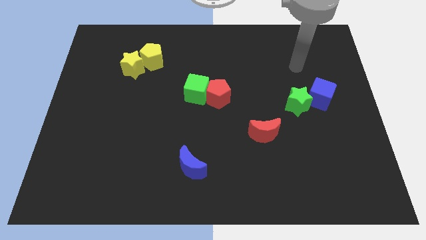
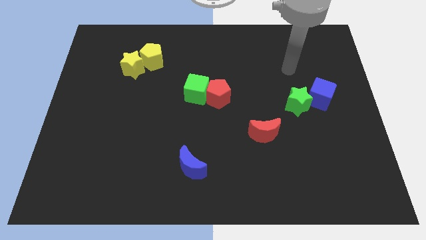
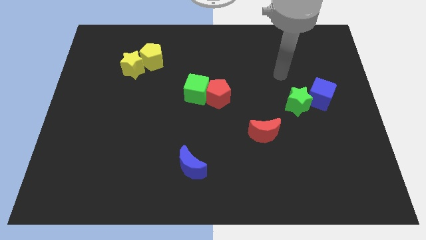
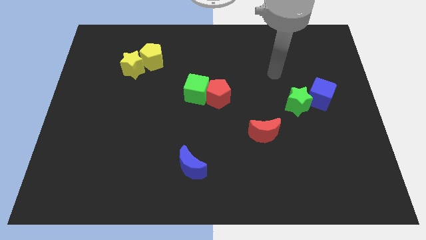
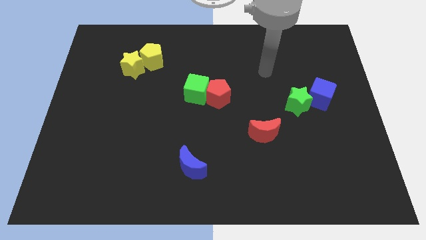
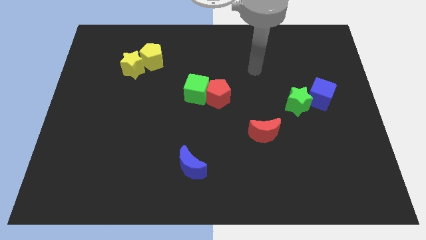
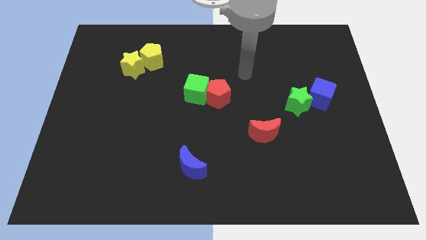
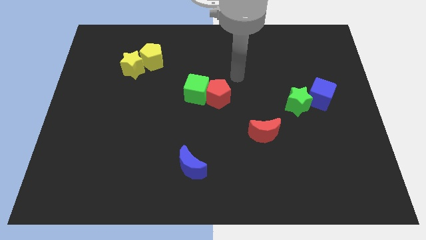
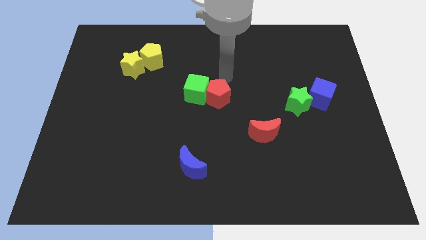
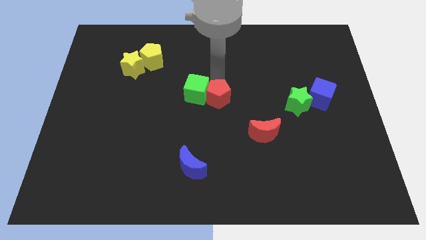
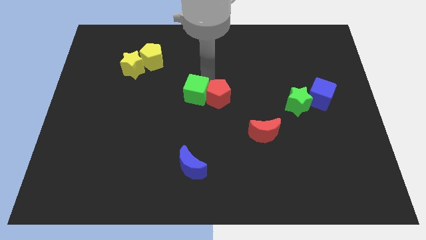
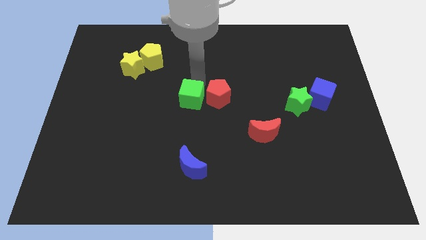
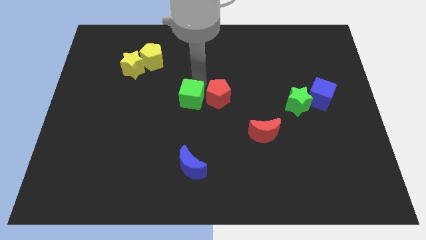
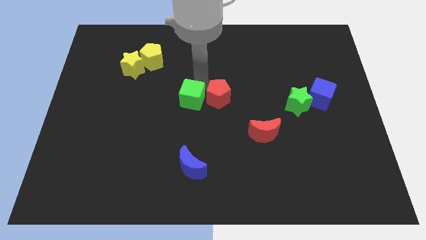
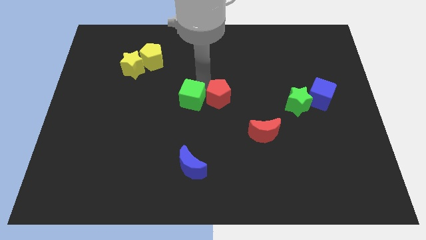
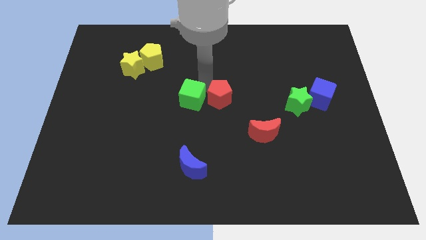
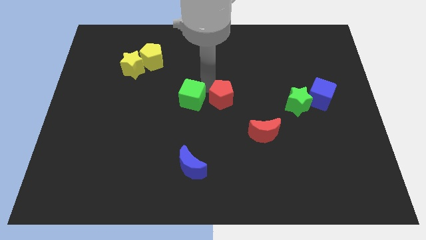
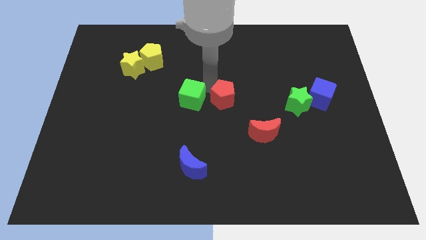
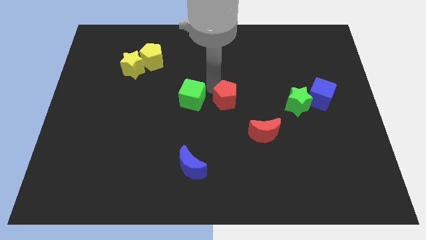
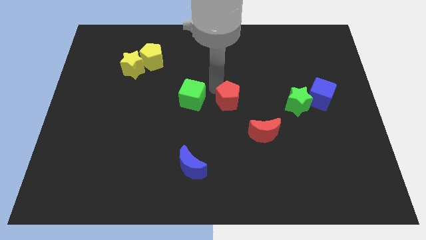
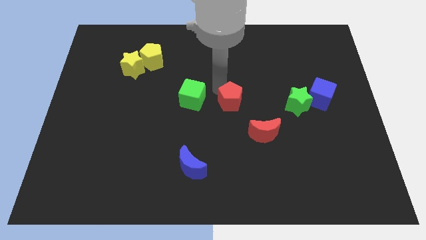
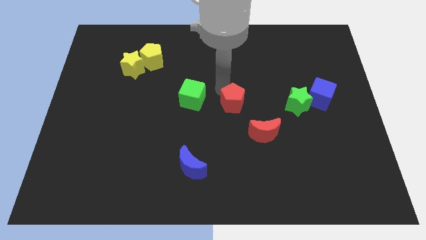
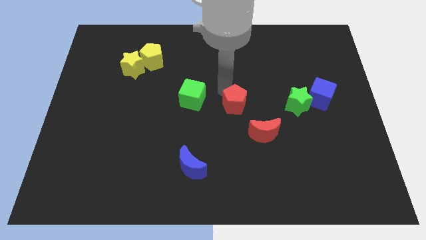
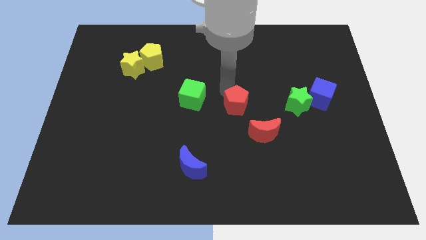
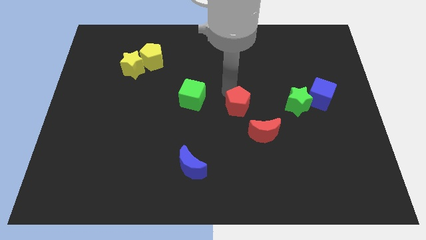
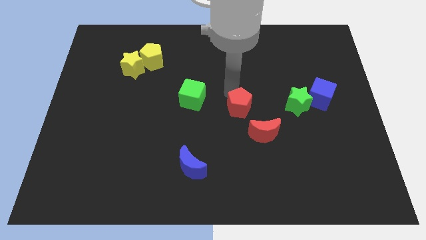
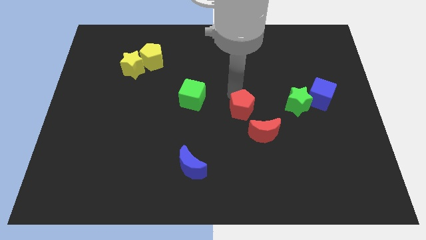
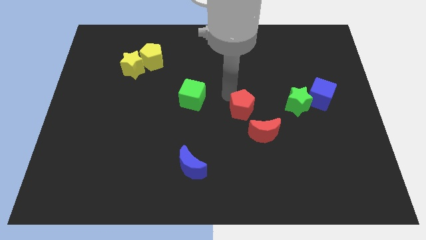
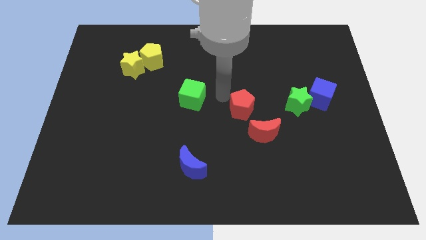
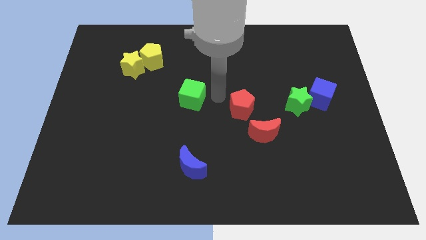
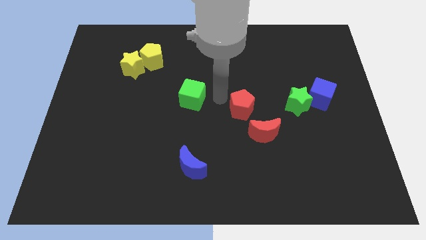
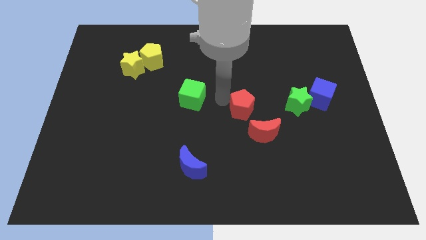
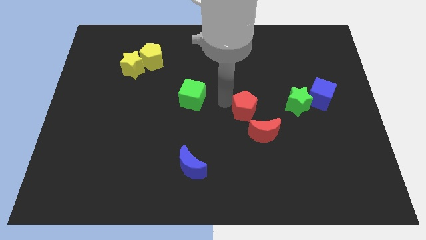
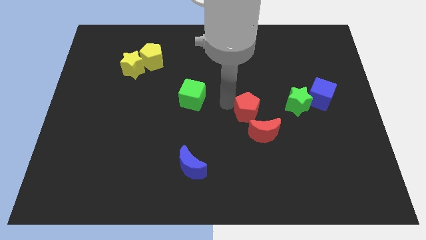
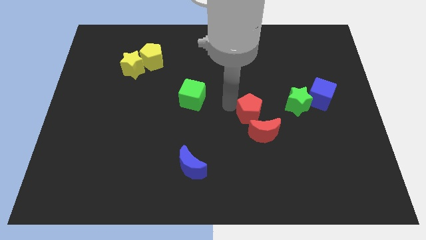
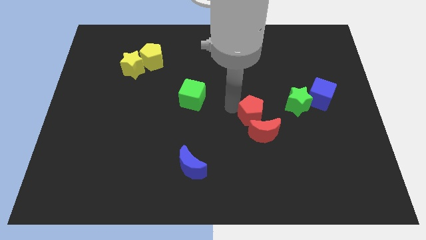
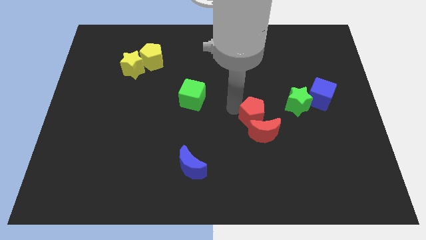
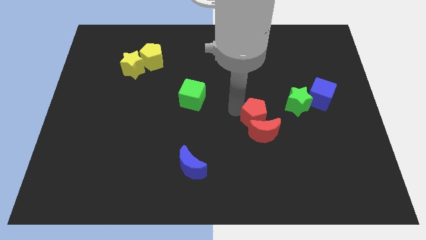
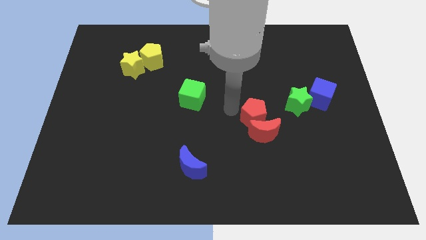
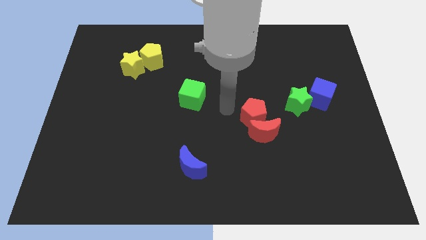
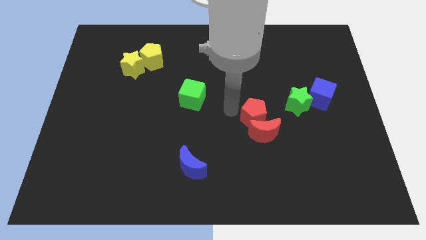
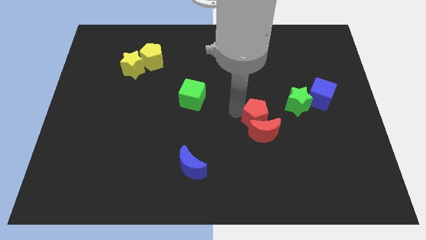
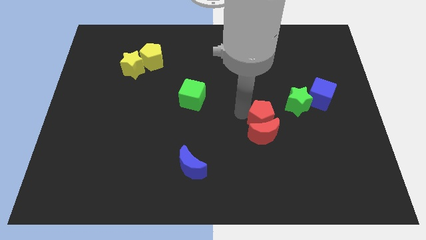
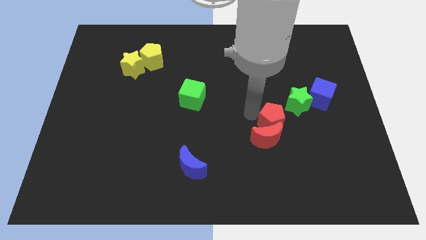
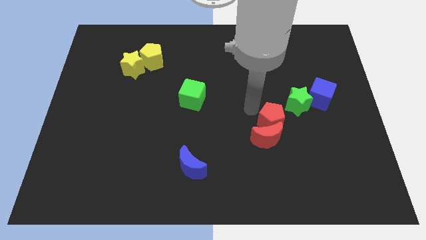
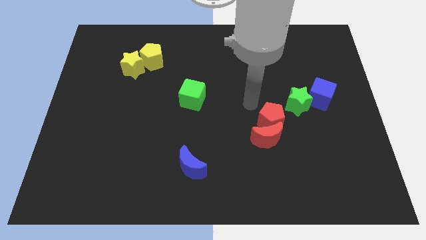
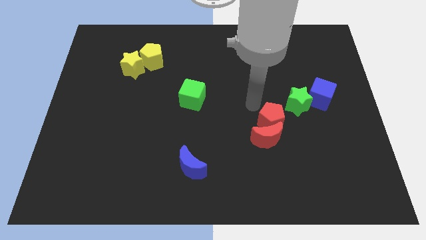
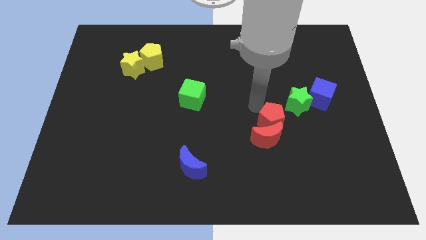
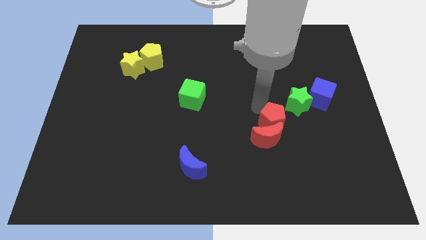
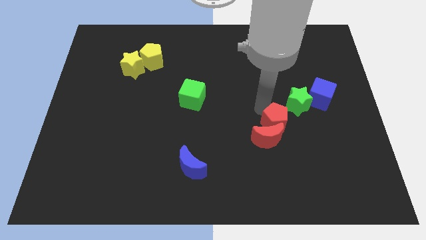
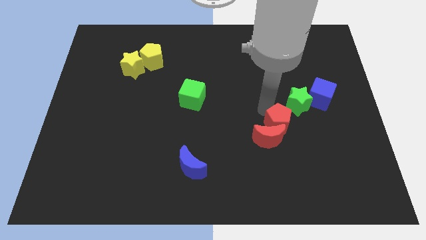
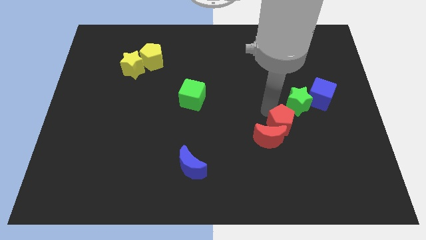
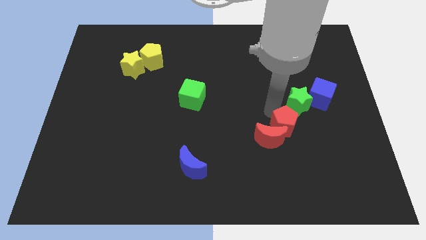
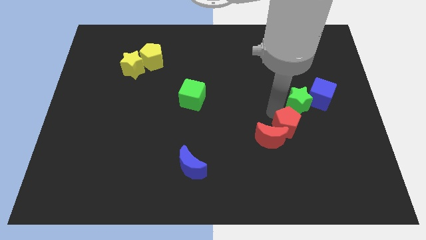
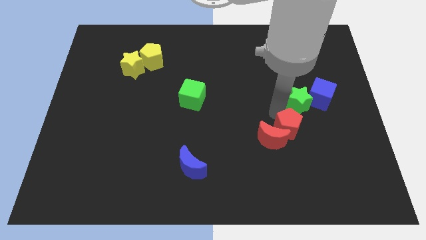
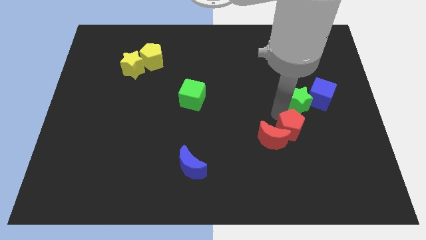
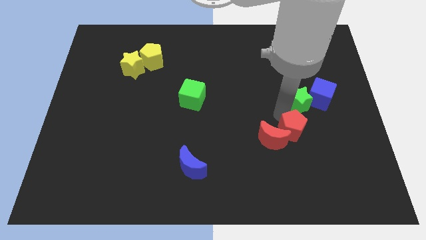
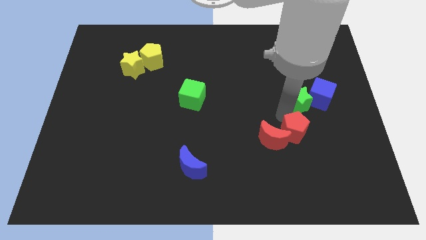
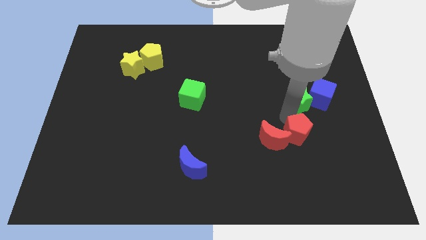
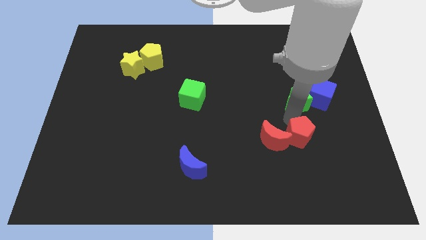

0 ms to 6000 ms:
push the red pentagon diagonally downwards and right

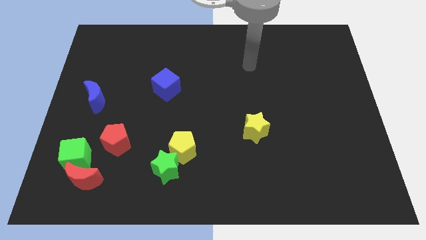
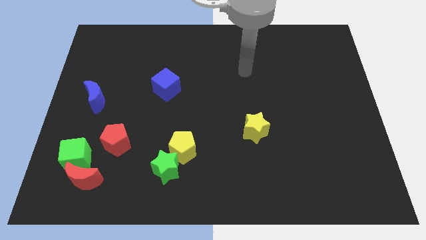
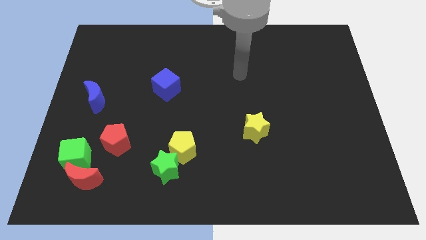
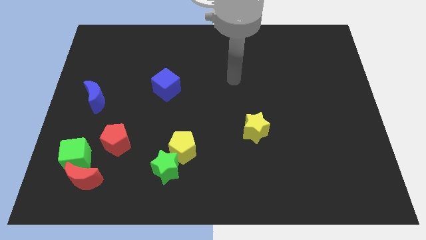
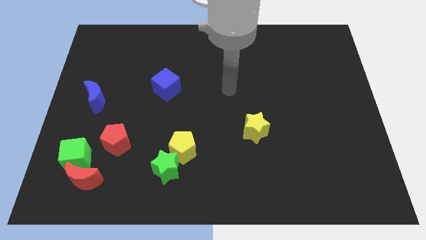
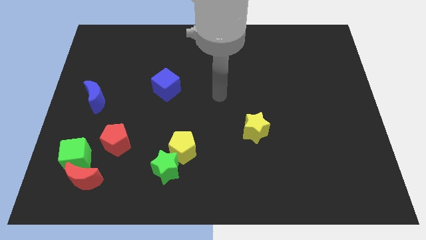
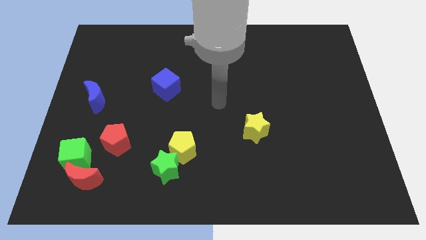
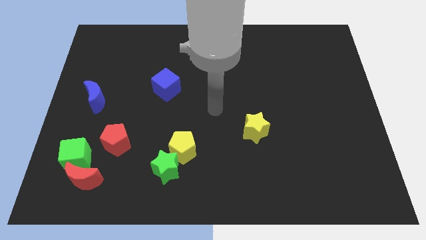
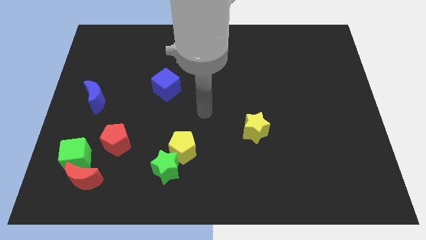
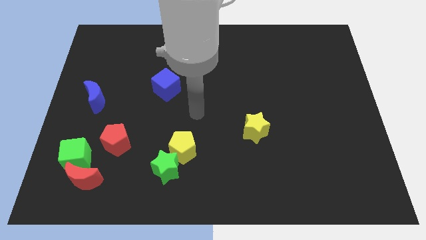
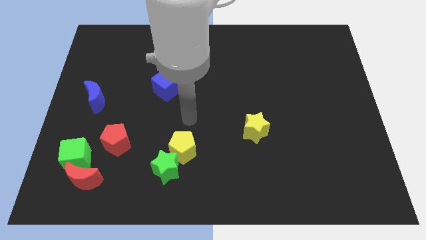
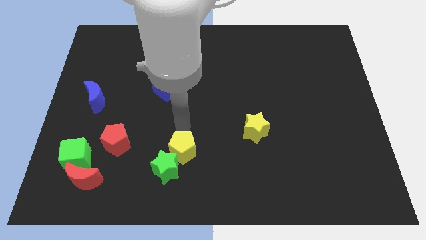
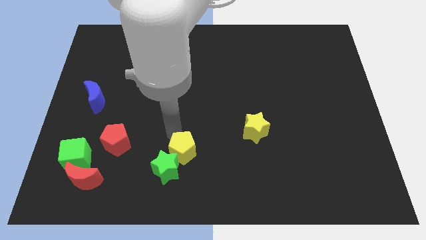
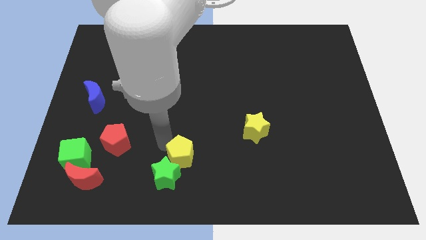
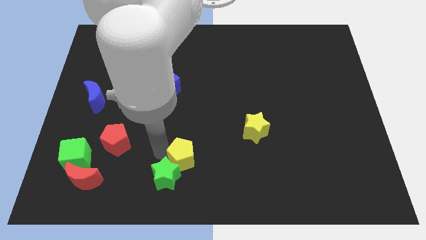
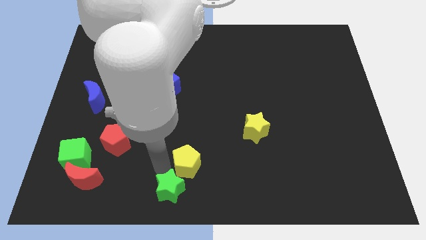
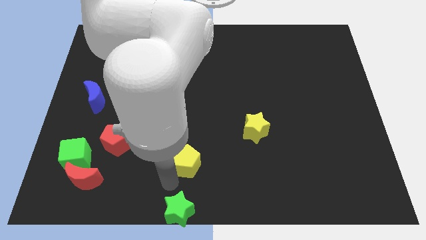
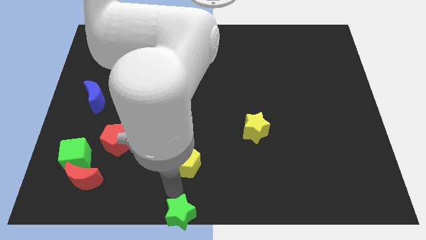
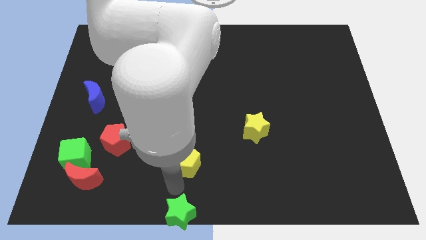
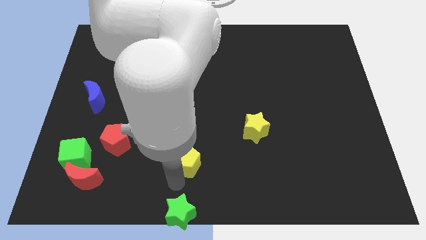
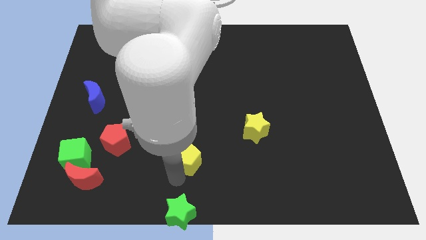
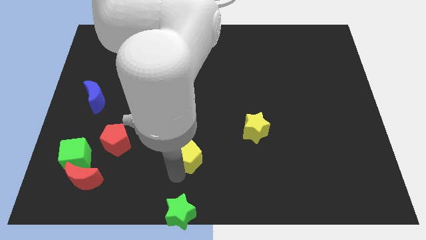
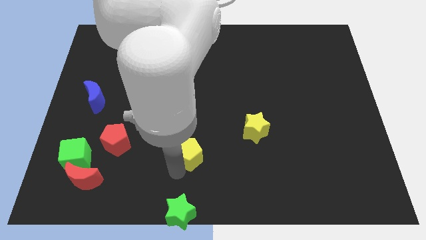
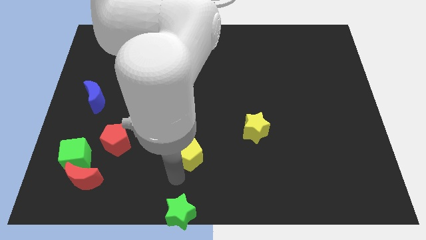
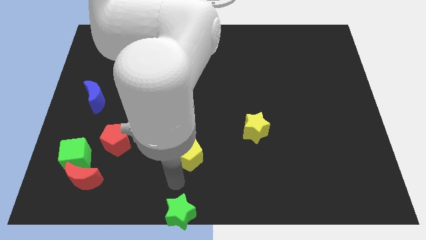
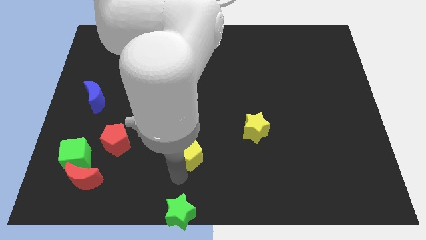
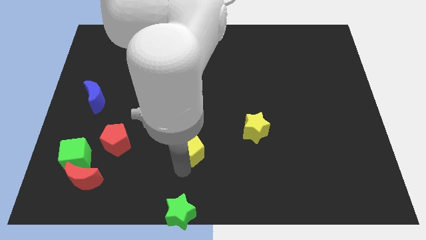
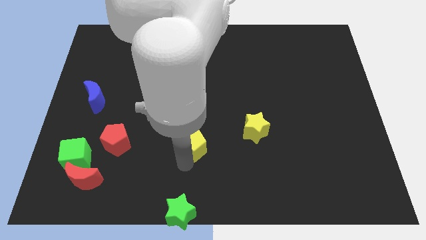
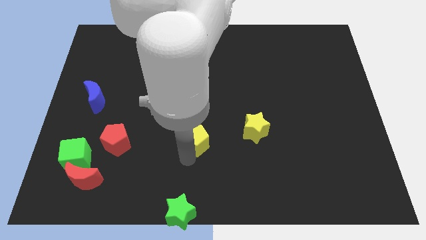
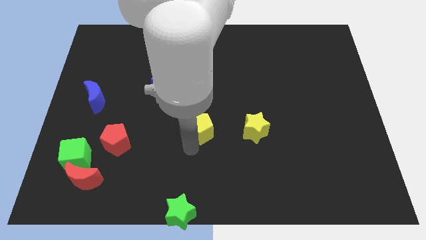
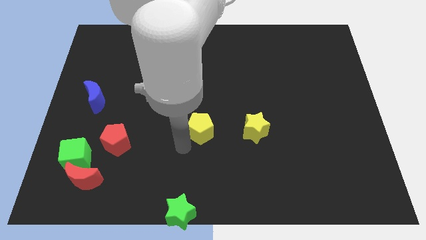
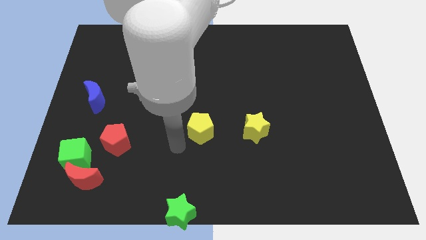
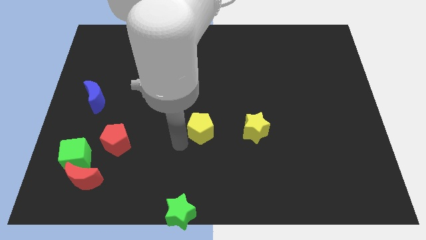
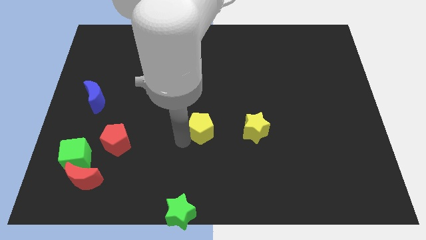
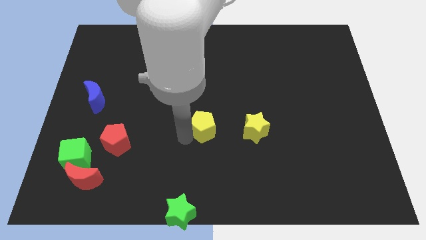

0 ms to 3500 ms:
move the yellow pentagon diagonally upwards and right a little bit
